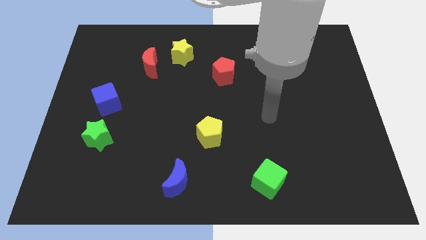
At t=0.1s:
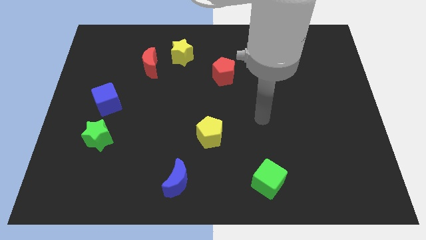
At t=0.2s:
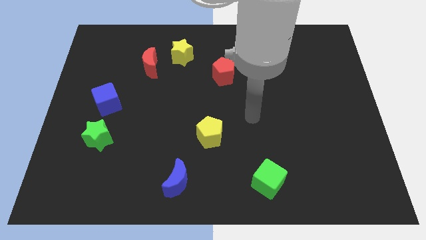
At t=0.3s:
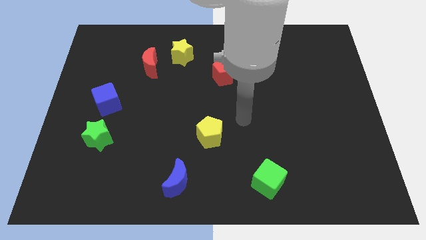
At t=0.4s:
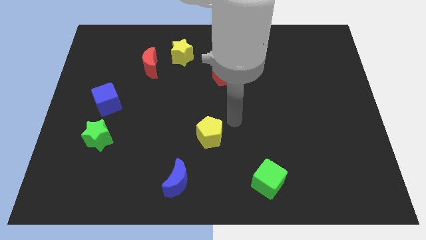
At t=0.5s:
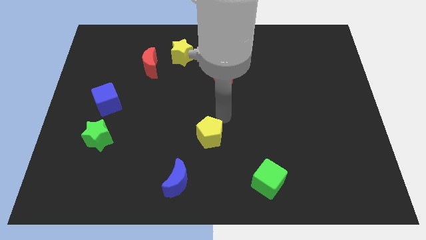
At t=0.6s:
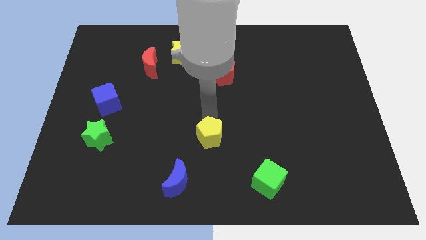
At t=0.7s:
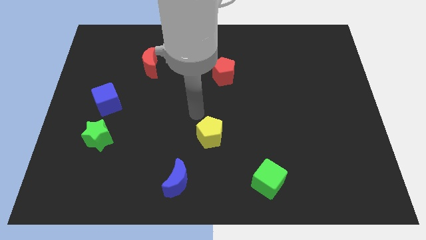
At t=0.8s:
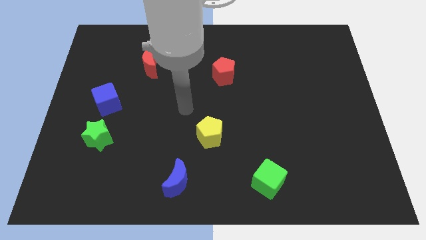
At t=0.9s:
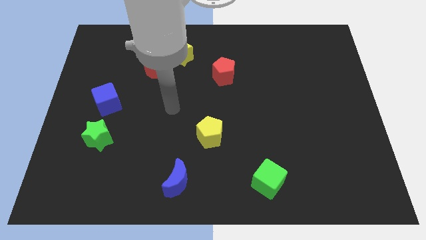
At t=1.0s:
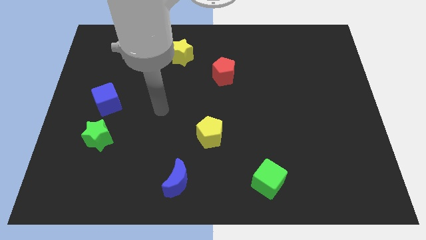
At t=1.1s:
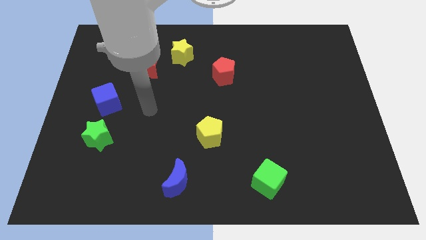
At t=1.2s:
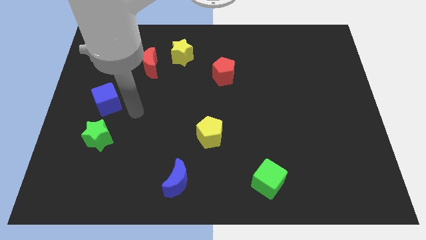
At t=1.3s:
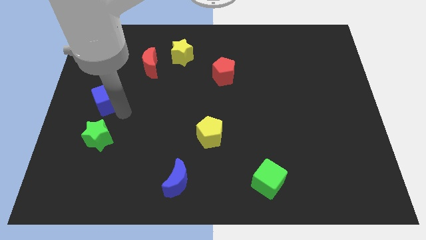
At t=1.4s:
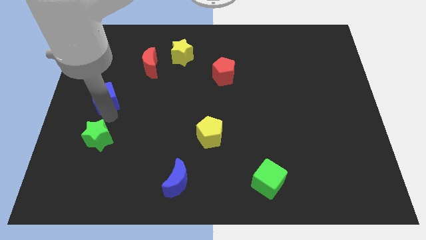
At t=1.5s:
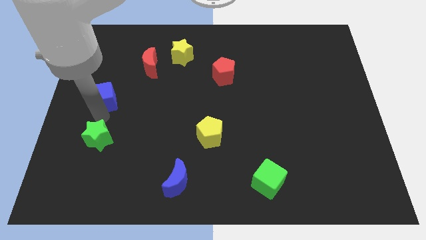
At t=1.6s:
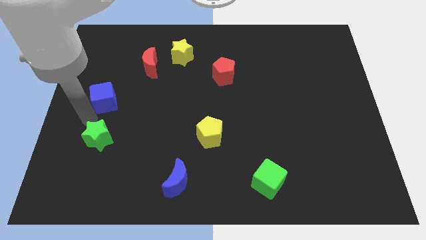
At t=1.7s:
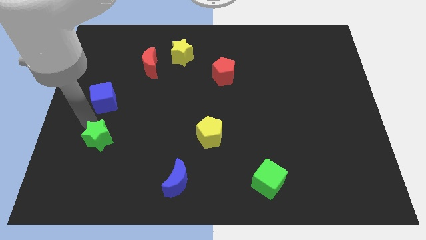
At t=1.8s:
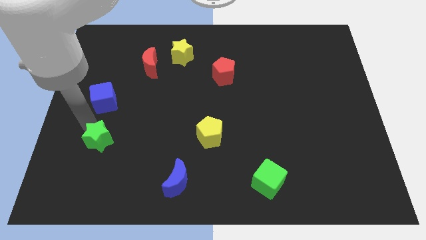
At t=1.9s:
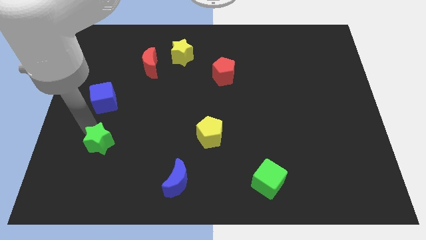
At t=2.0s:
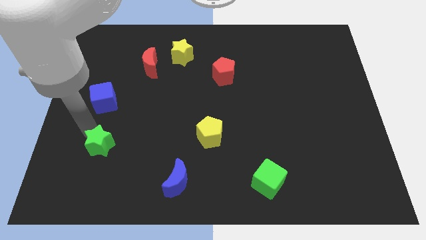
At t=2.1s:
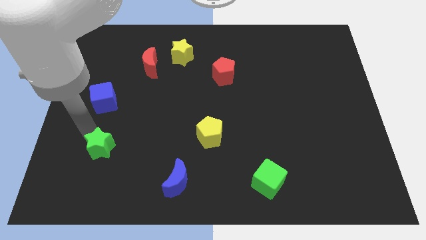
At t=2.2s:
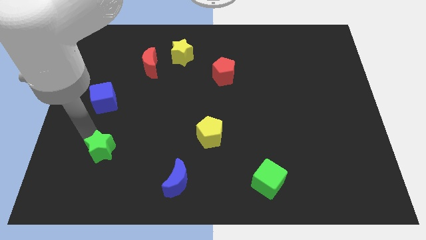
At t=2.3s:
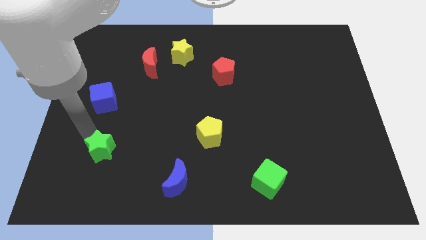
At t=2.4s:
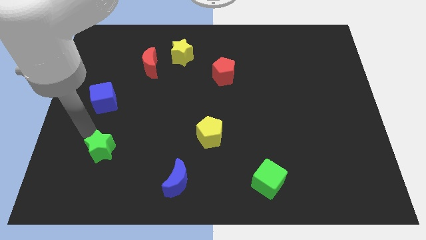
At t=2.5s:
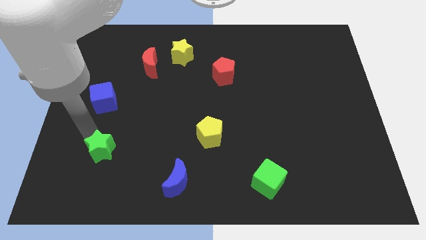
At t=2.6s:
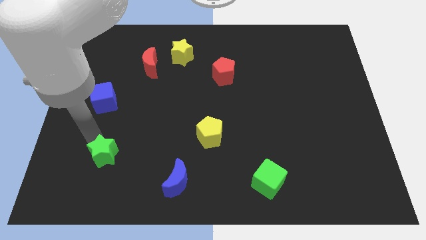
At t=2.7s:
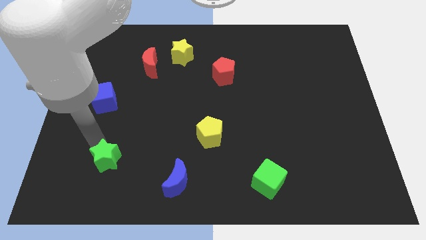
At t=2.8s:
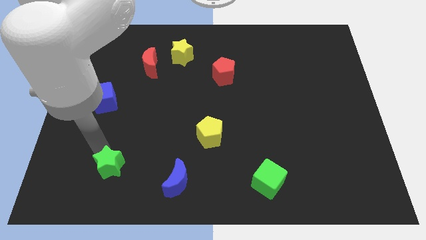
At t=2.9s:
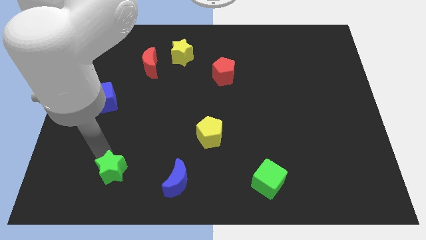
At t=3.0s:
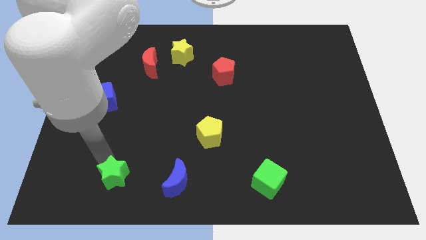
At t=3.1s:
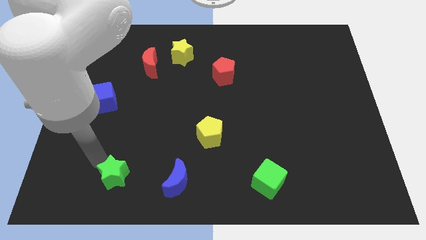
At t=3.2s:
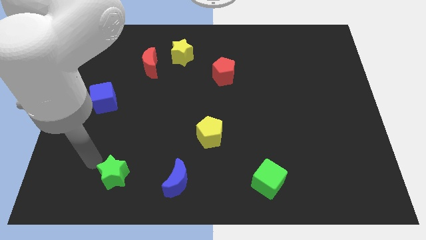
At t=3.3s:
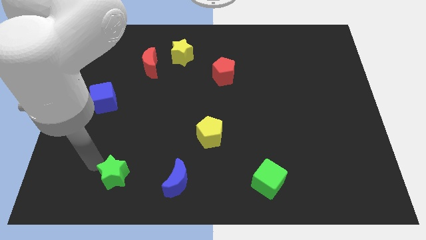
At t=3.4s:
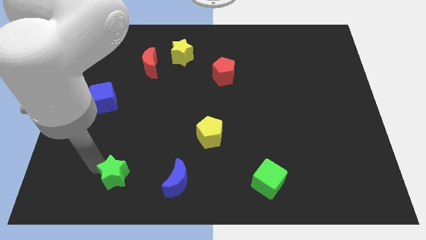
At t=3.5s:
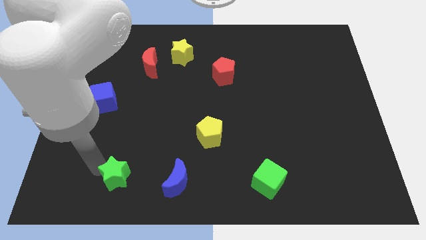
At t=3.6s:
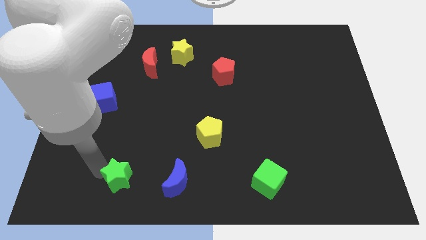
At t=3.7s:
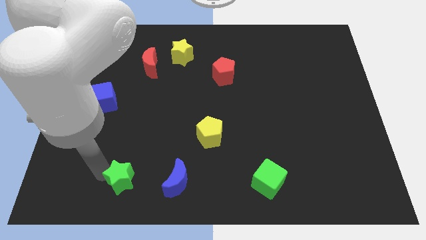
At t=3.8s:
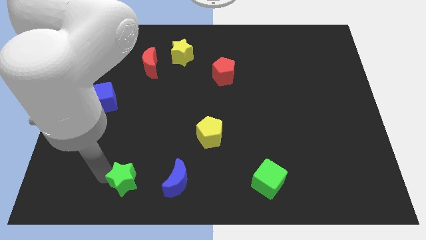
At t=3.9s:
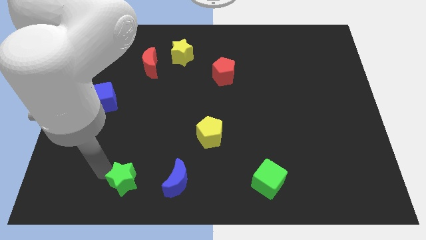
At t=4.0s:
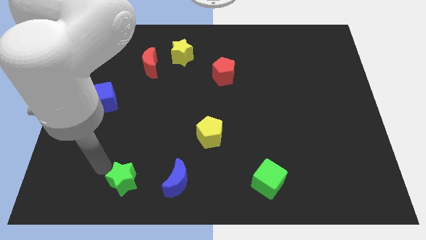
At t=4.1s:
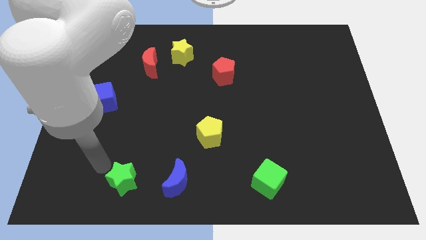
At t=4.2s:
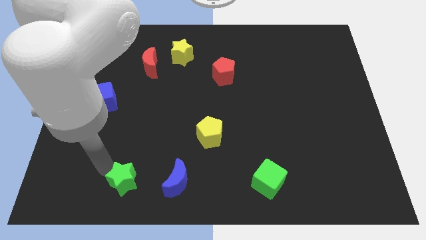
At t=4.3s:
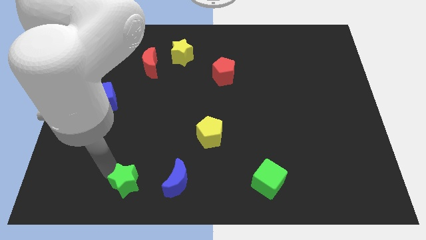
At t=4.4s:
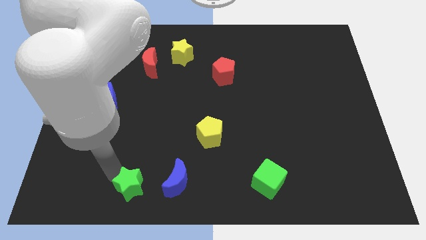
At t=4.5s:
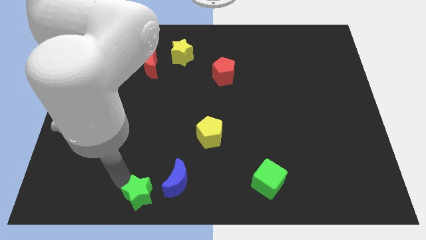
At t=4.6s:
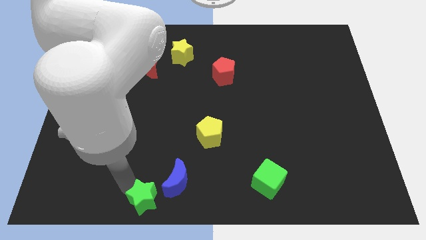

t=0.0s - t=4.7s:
move the green star to the bottom side

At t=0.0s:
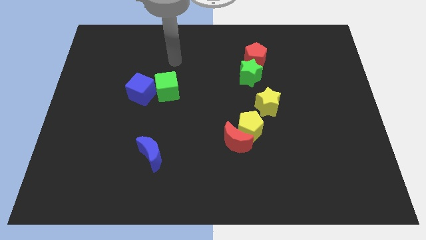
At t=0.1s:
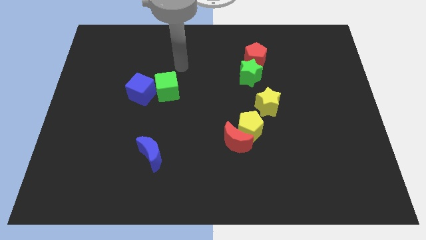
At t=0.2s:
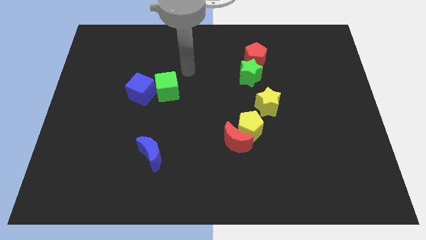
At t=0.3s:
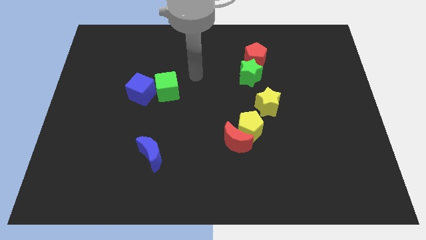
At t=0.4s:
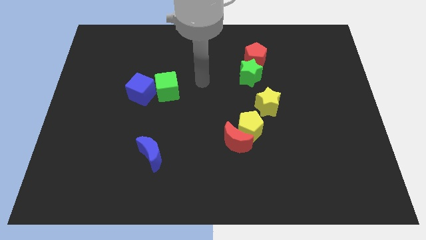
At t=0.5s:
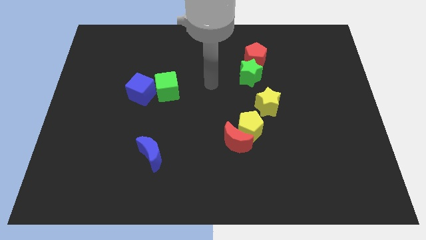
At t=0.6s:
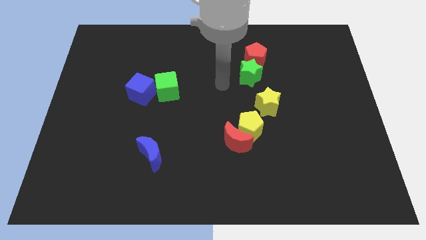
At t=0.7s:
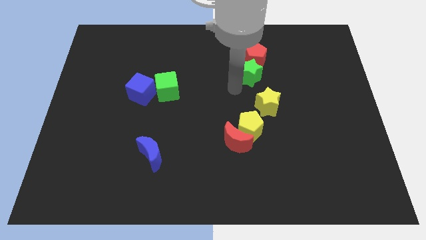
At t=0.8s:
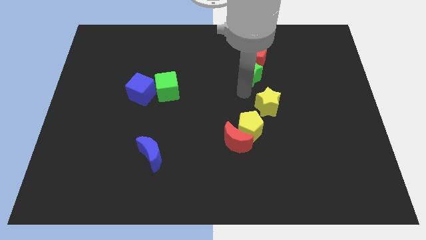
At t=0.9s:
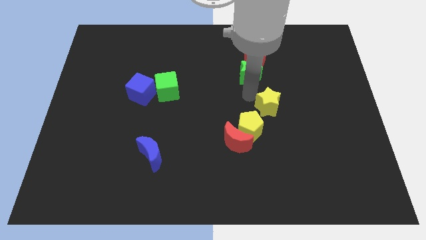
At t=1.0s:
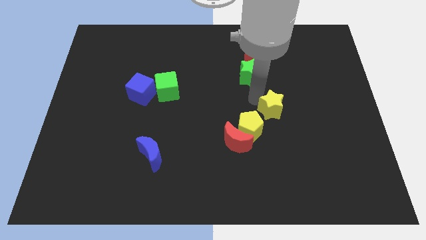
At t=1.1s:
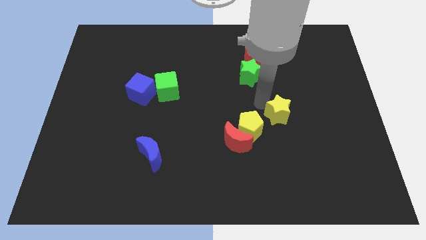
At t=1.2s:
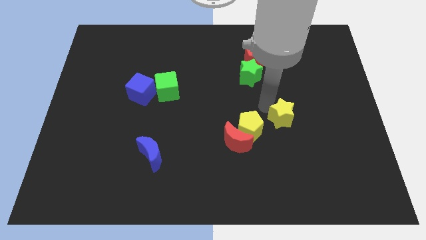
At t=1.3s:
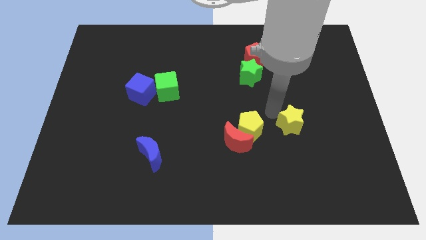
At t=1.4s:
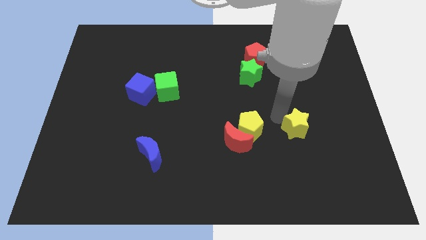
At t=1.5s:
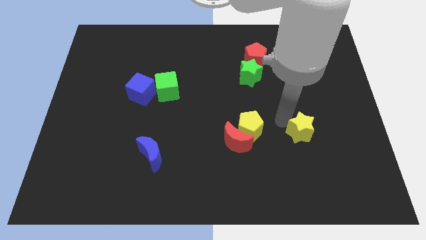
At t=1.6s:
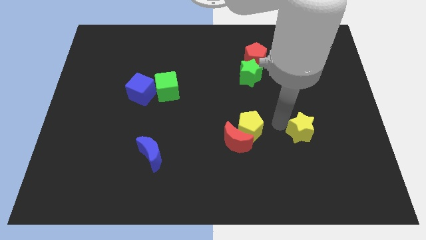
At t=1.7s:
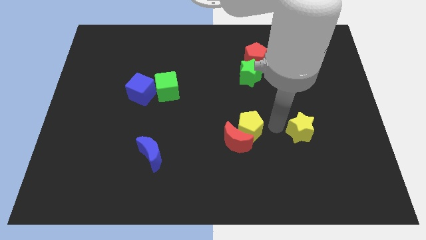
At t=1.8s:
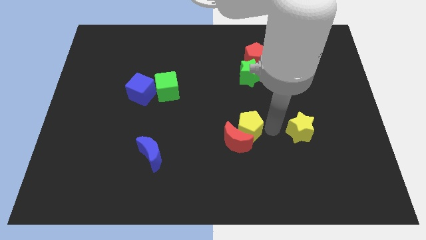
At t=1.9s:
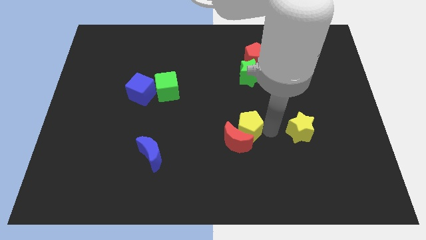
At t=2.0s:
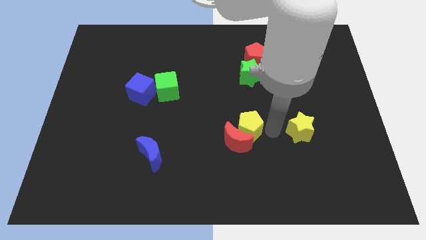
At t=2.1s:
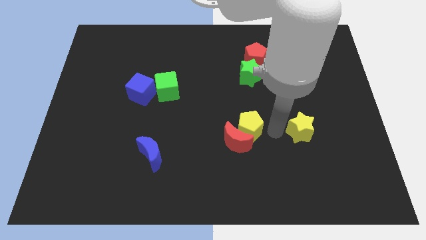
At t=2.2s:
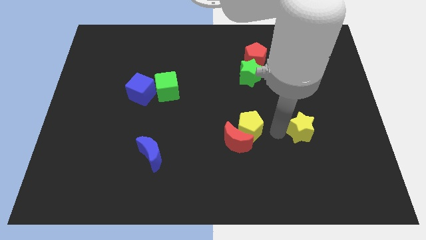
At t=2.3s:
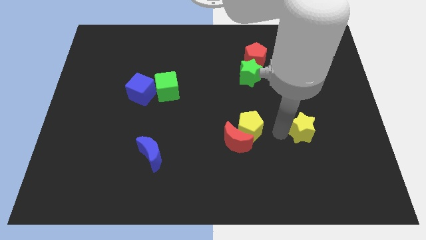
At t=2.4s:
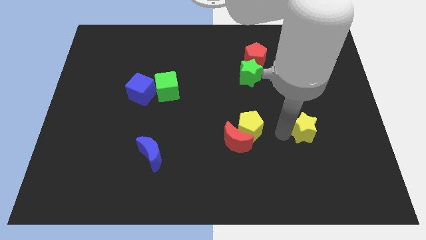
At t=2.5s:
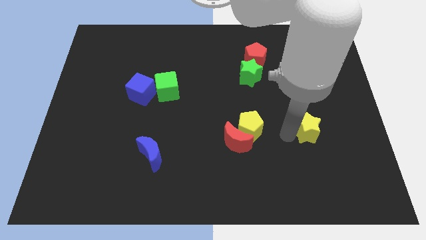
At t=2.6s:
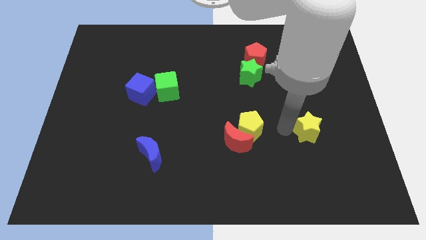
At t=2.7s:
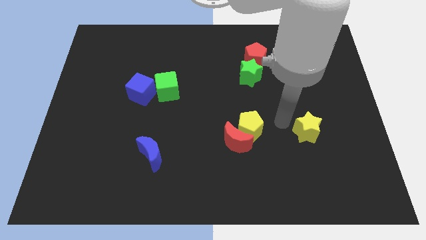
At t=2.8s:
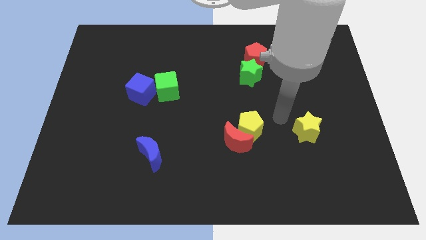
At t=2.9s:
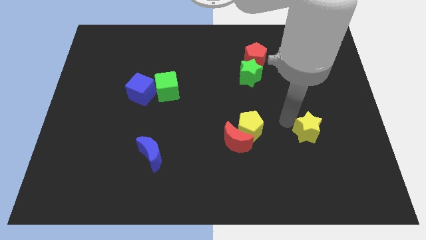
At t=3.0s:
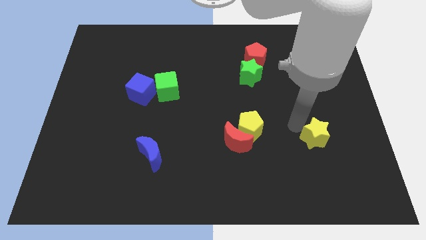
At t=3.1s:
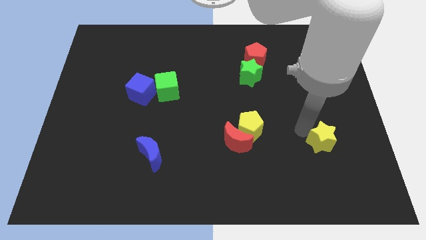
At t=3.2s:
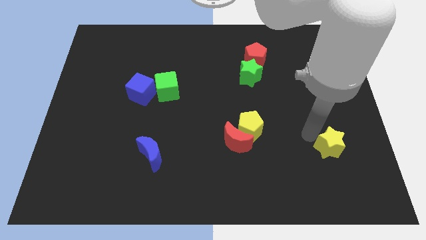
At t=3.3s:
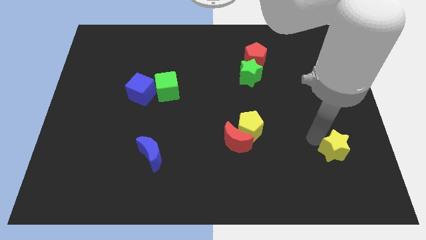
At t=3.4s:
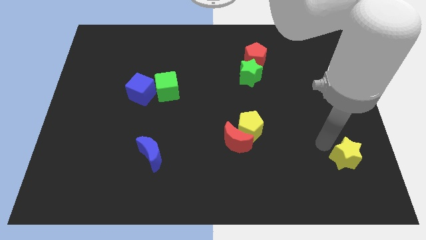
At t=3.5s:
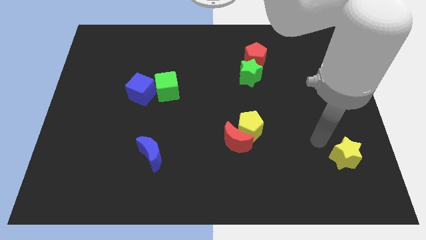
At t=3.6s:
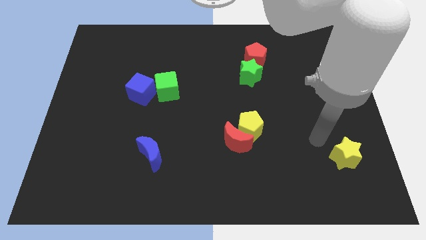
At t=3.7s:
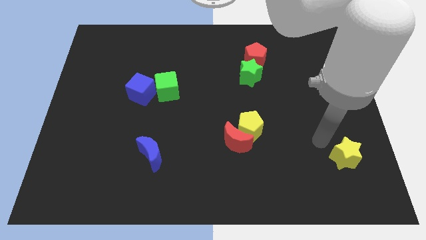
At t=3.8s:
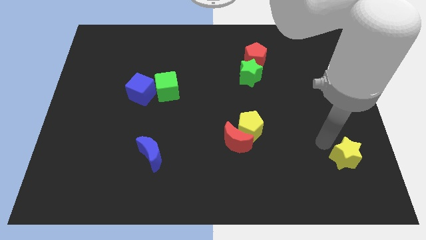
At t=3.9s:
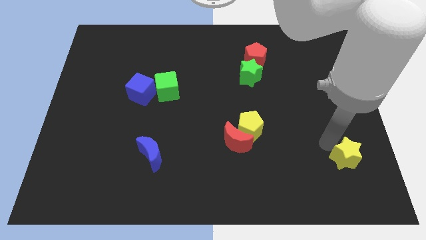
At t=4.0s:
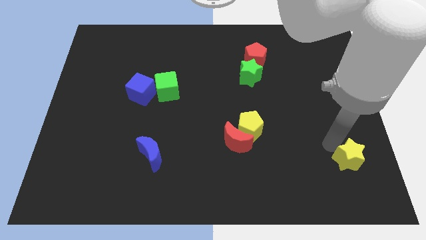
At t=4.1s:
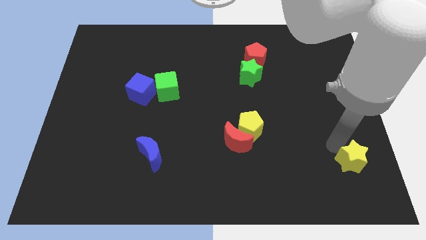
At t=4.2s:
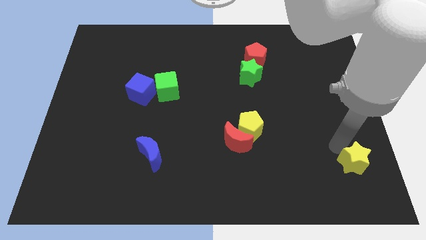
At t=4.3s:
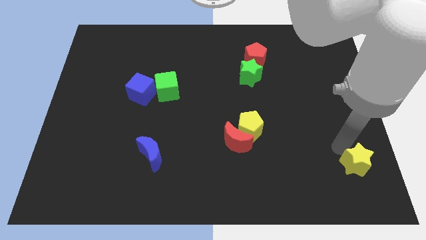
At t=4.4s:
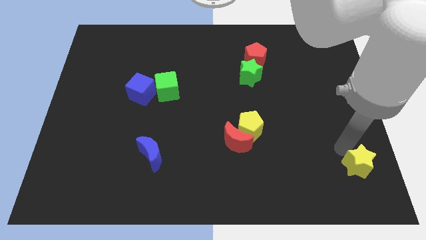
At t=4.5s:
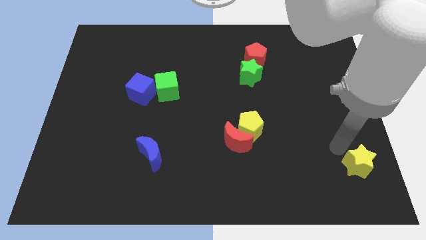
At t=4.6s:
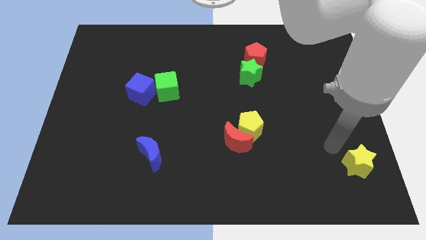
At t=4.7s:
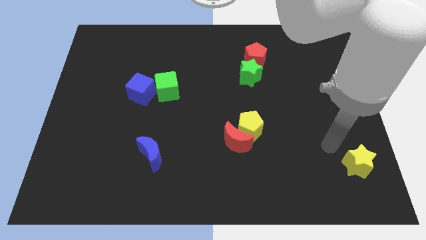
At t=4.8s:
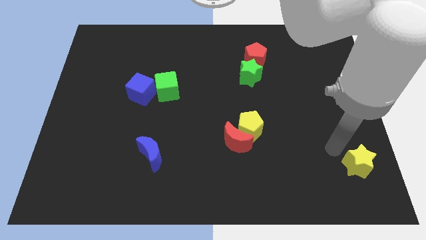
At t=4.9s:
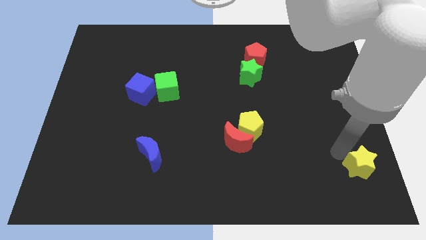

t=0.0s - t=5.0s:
slide the yellow star to the bottom right corner
